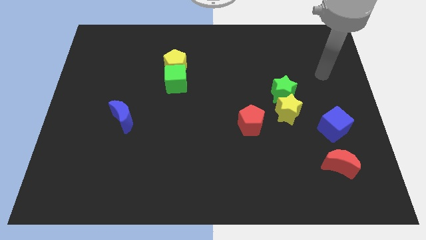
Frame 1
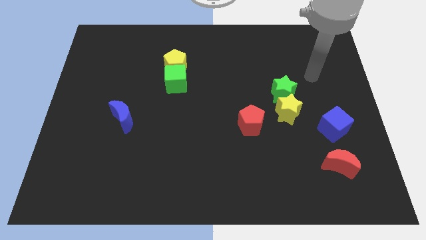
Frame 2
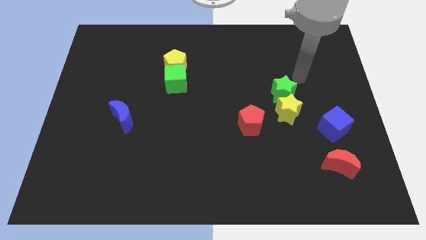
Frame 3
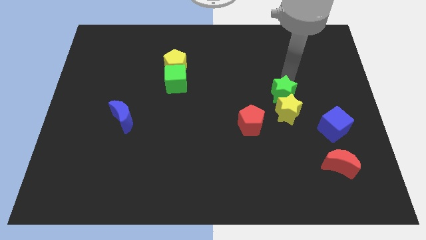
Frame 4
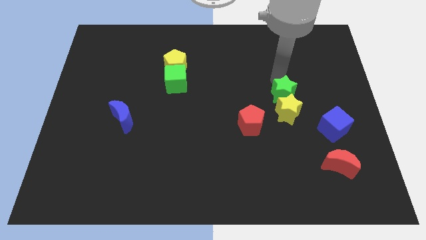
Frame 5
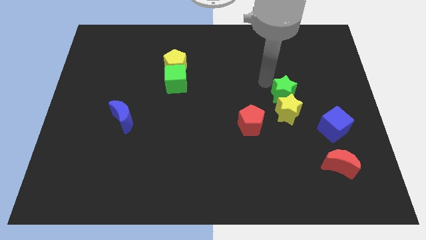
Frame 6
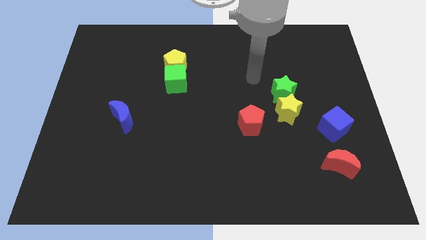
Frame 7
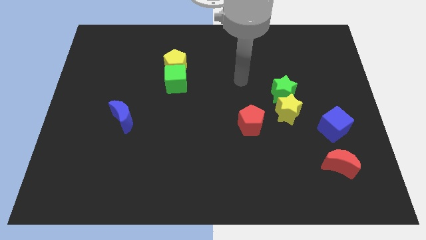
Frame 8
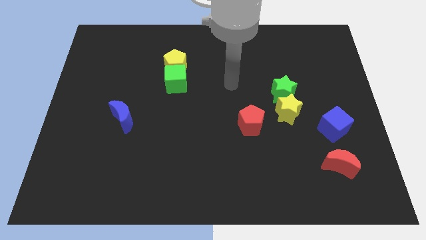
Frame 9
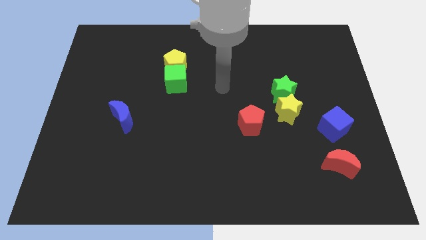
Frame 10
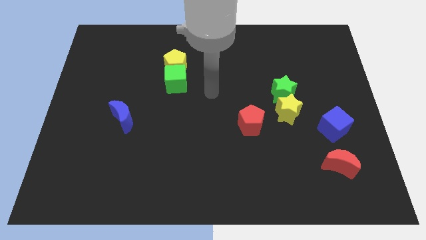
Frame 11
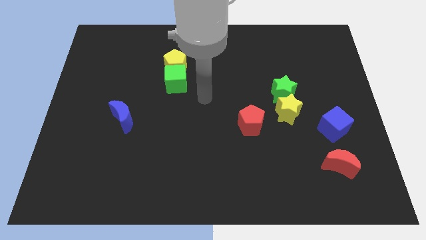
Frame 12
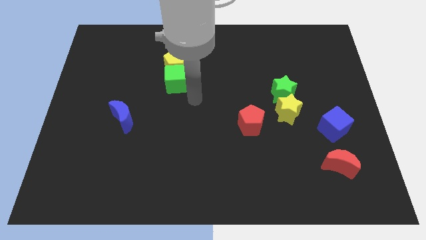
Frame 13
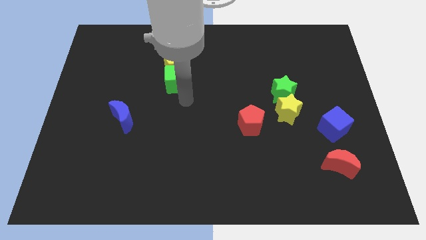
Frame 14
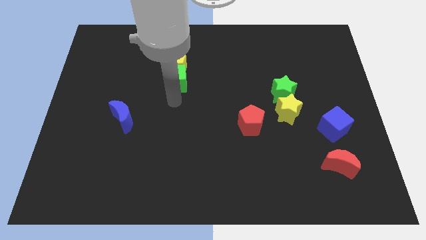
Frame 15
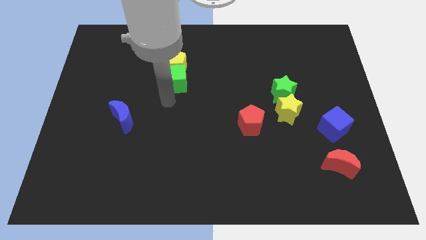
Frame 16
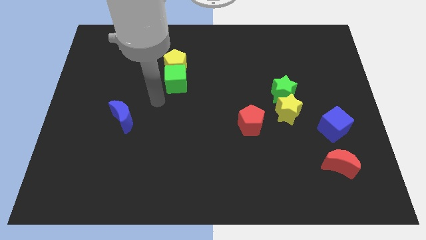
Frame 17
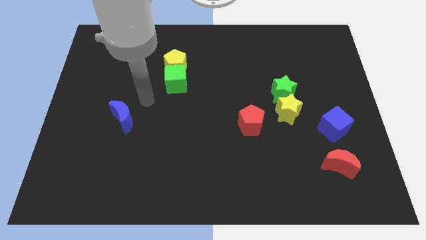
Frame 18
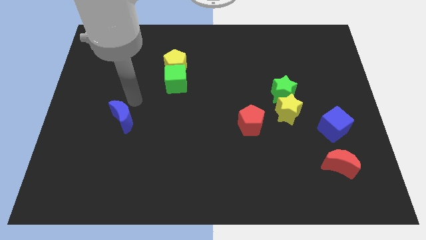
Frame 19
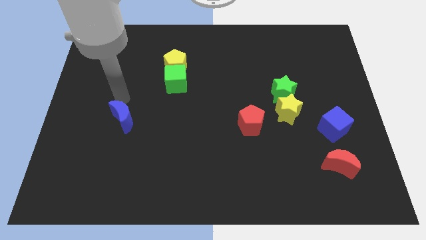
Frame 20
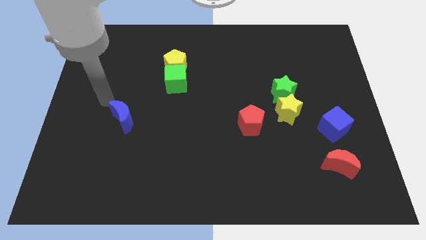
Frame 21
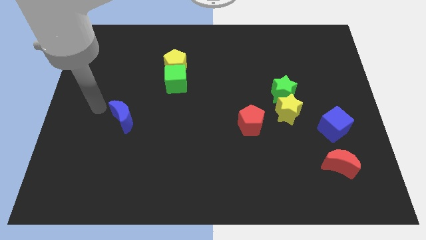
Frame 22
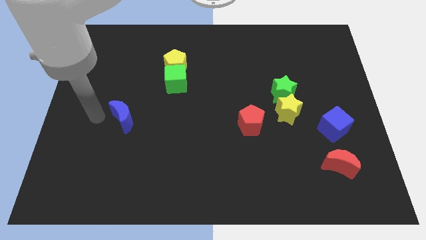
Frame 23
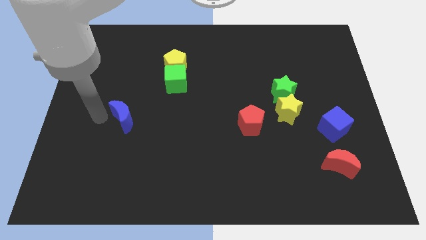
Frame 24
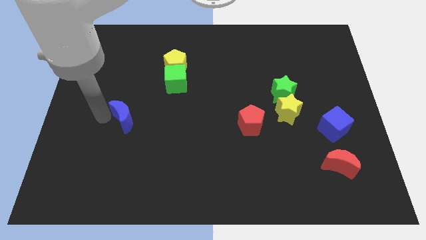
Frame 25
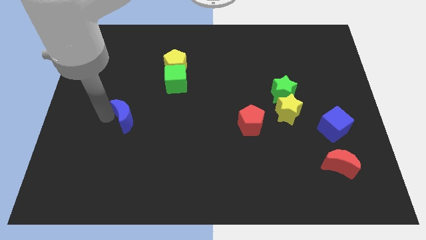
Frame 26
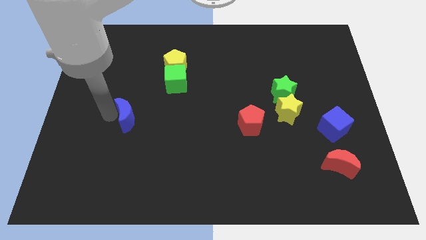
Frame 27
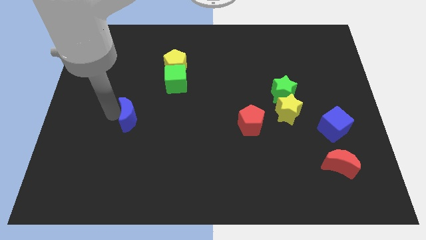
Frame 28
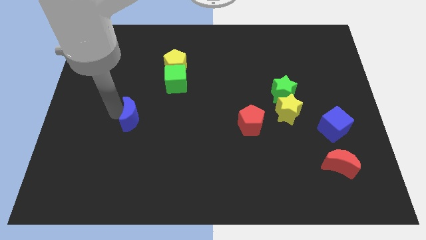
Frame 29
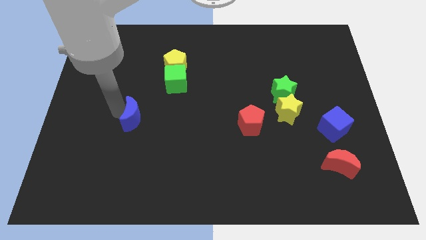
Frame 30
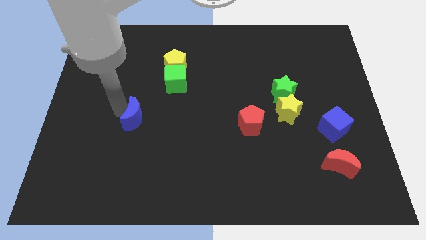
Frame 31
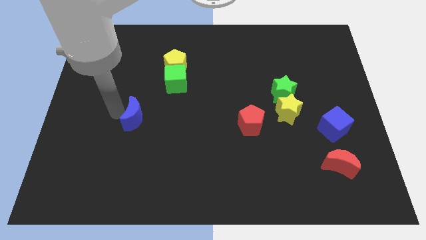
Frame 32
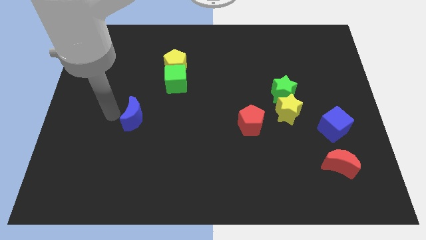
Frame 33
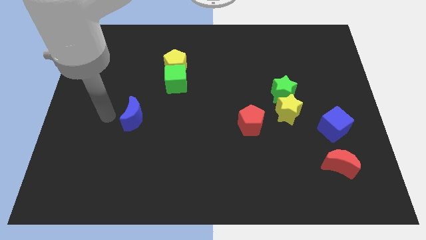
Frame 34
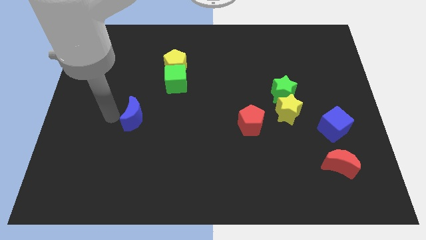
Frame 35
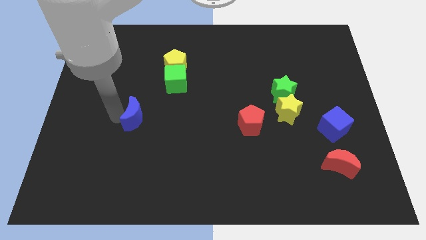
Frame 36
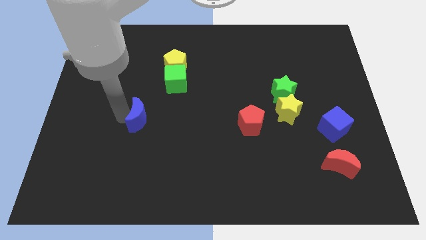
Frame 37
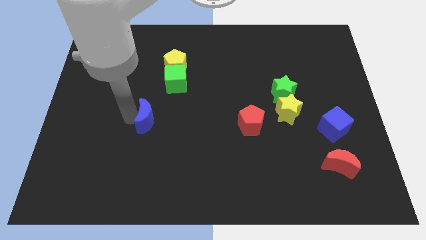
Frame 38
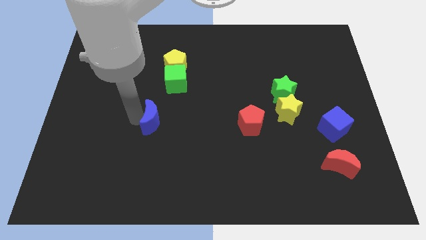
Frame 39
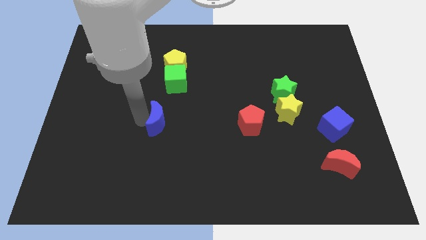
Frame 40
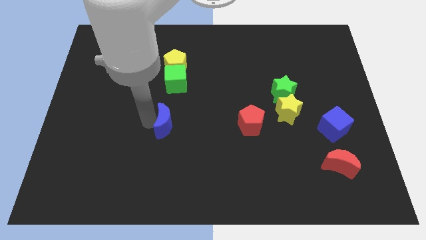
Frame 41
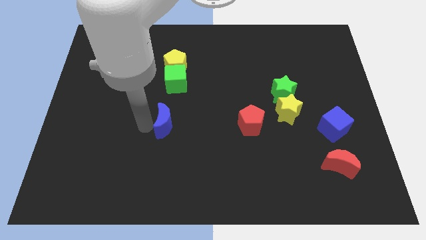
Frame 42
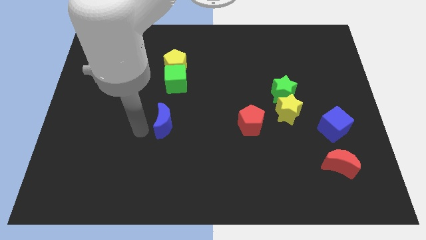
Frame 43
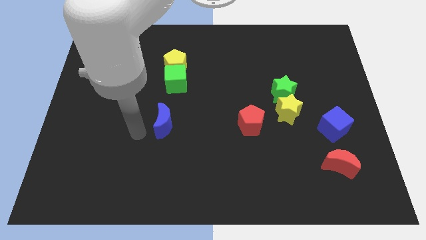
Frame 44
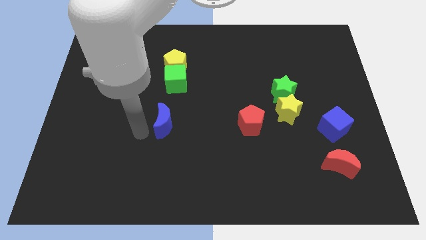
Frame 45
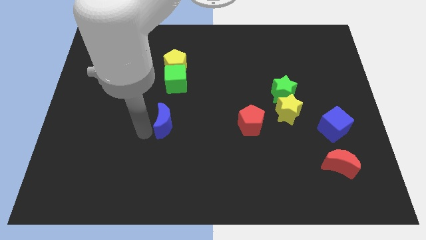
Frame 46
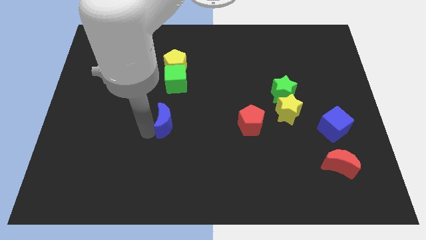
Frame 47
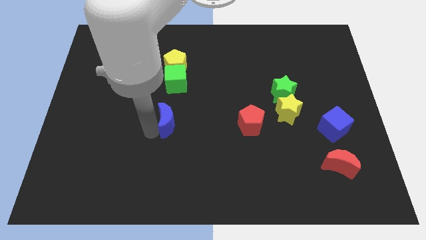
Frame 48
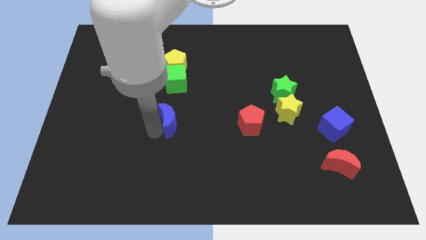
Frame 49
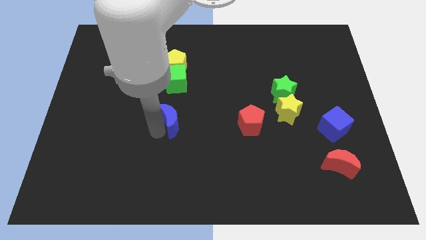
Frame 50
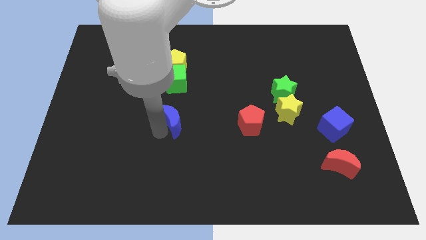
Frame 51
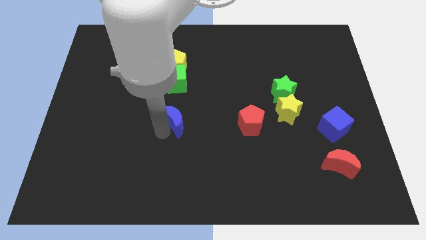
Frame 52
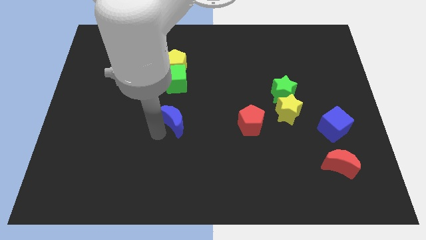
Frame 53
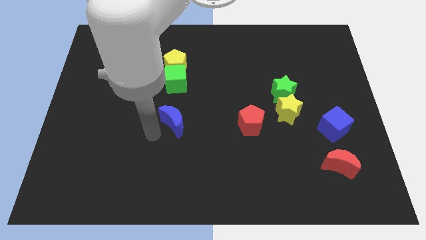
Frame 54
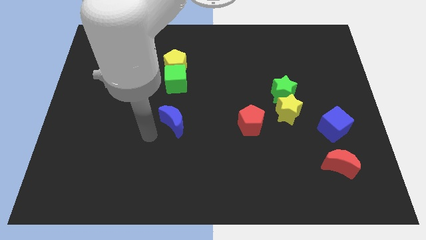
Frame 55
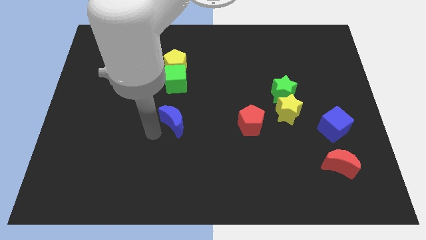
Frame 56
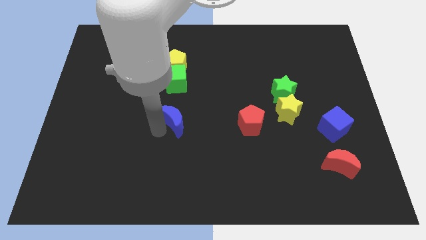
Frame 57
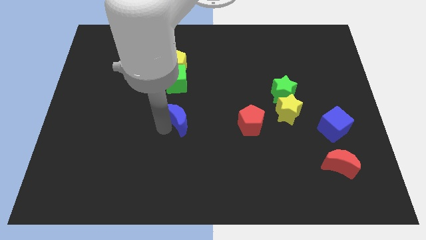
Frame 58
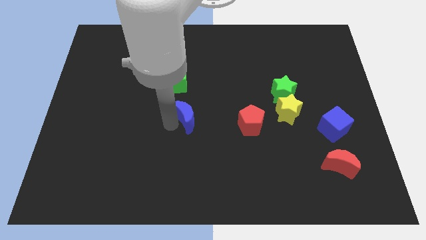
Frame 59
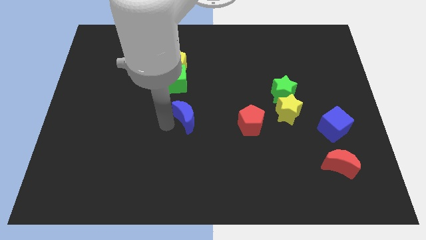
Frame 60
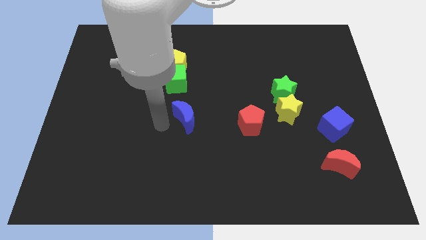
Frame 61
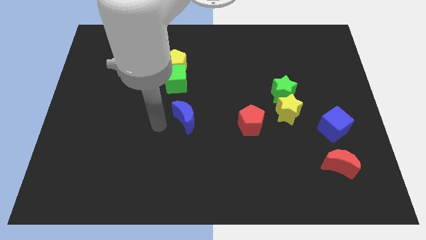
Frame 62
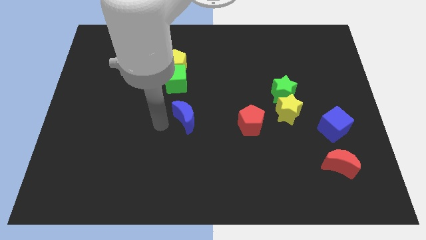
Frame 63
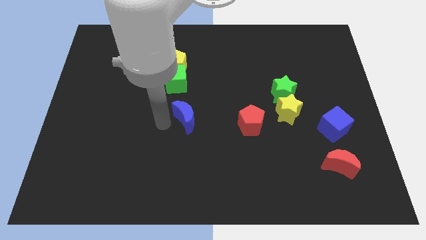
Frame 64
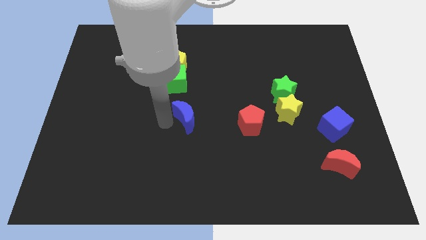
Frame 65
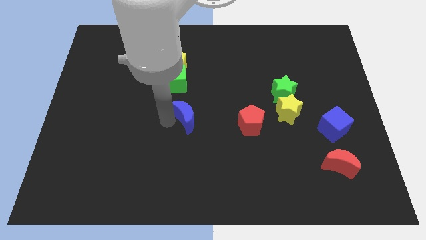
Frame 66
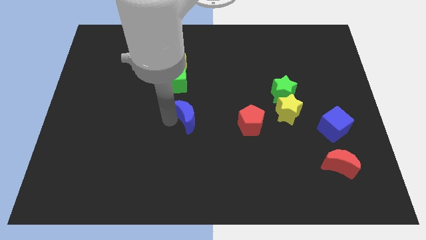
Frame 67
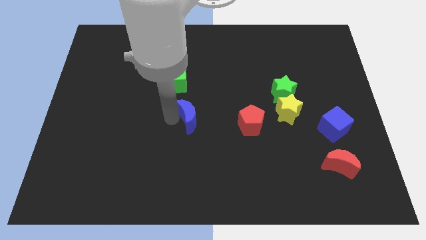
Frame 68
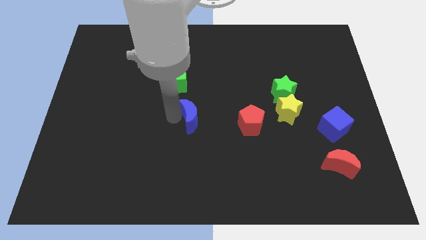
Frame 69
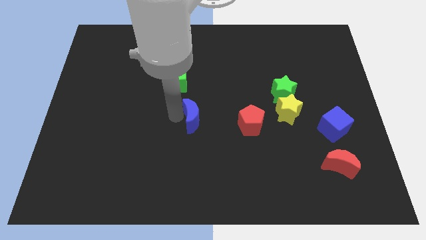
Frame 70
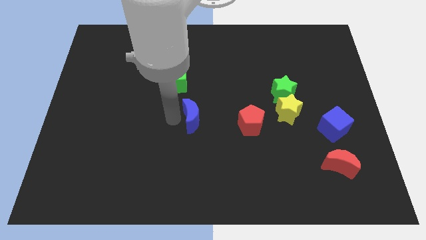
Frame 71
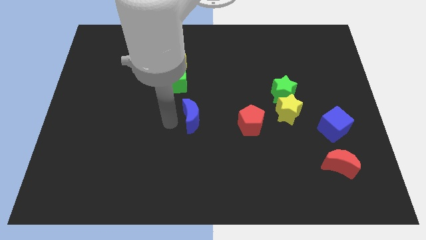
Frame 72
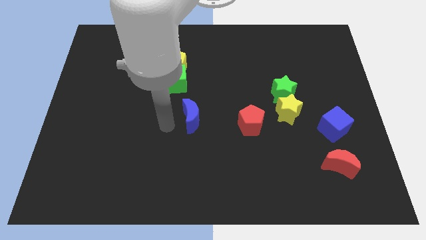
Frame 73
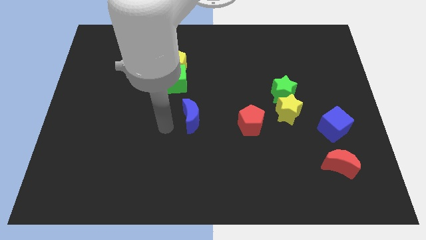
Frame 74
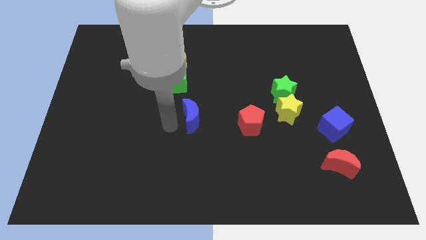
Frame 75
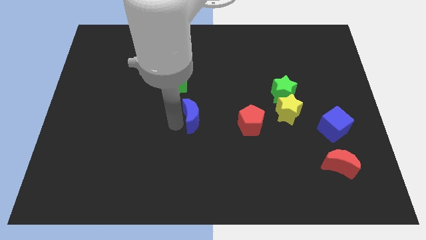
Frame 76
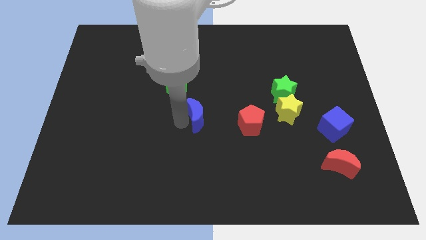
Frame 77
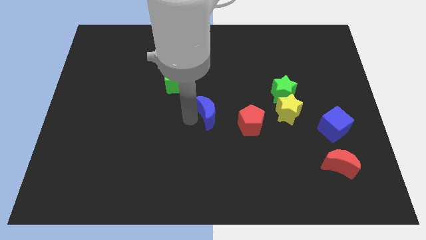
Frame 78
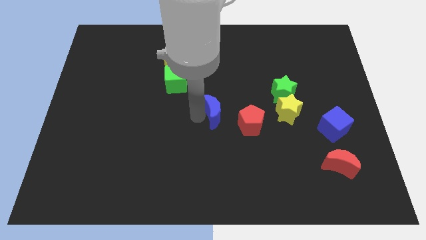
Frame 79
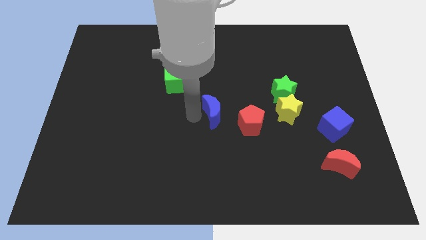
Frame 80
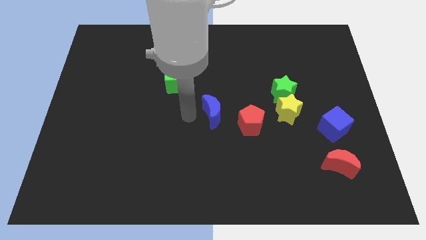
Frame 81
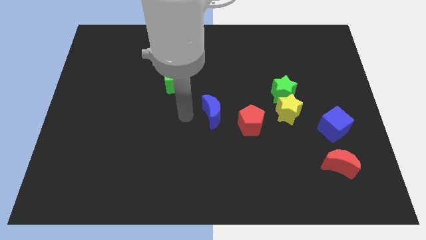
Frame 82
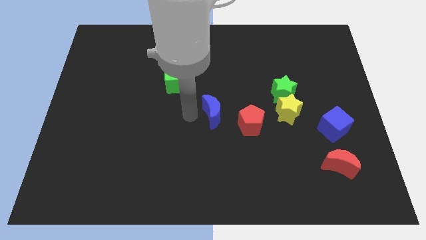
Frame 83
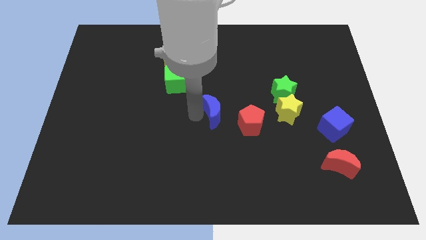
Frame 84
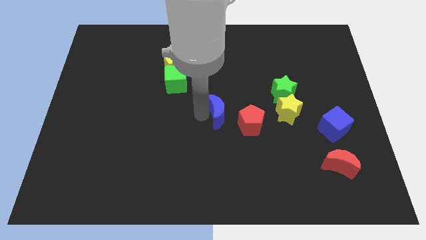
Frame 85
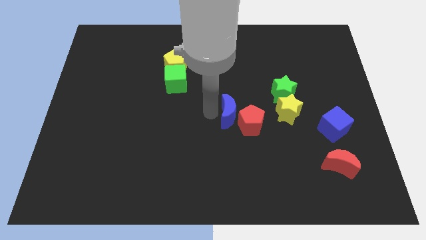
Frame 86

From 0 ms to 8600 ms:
slide the blue moon towards the red pentagon
